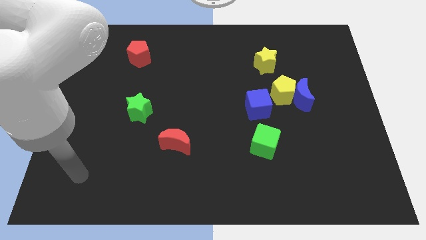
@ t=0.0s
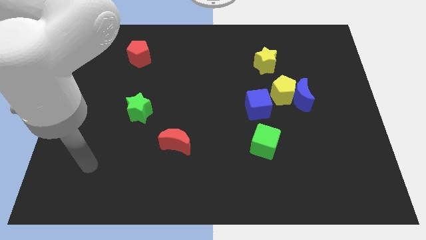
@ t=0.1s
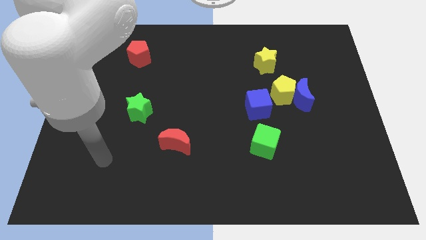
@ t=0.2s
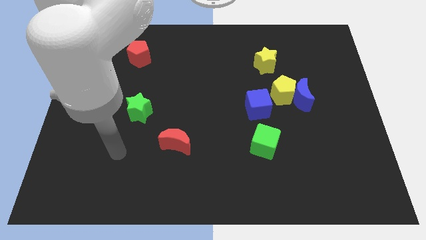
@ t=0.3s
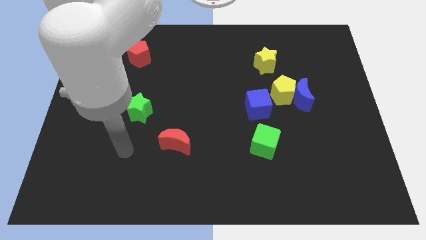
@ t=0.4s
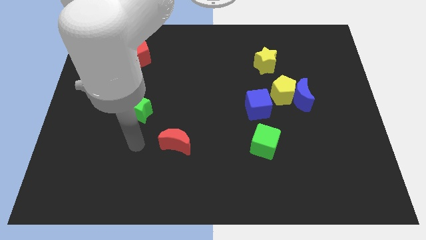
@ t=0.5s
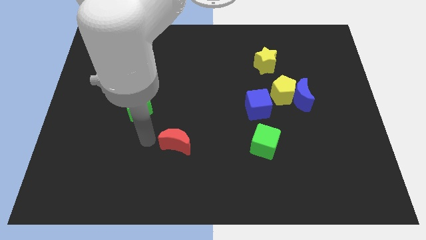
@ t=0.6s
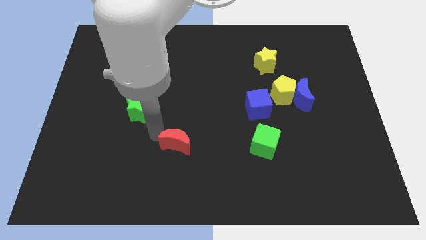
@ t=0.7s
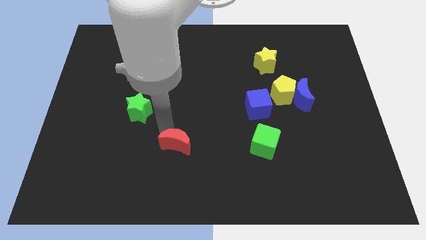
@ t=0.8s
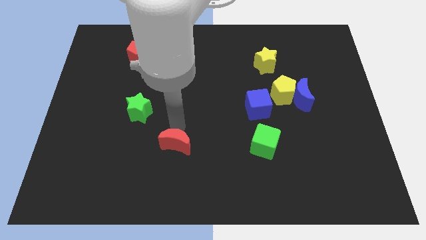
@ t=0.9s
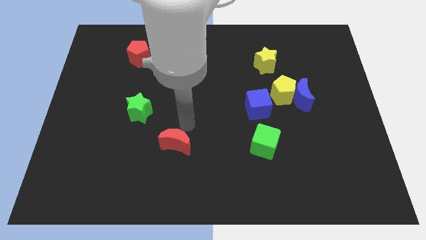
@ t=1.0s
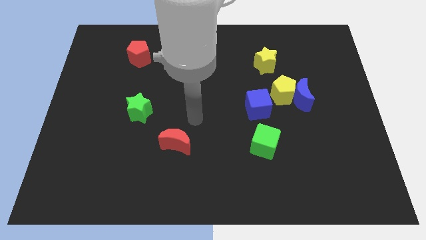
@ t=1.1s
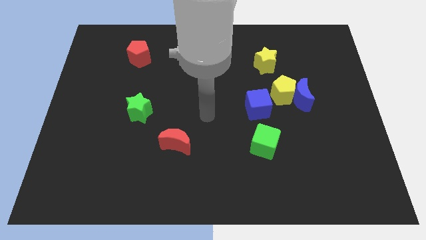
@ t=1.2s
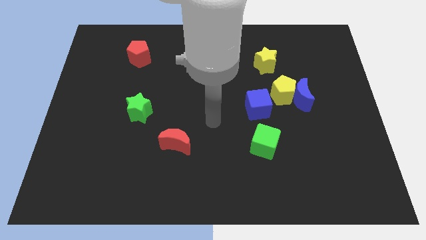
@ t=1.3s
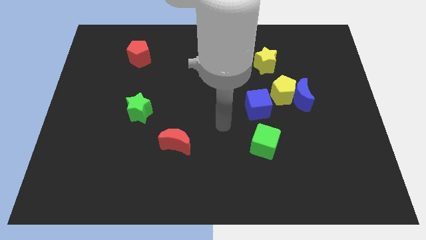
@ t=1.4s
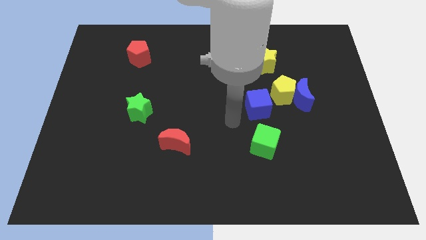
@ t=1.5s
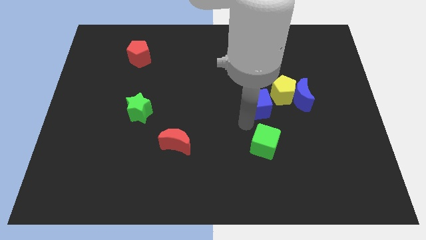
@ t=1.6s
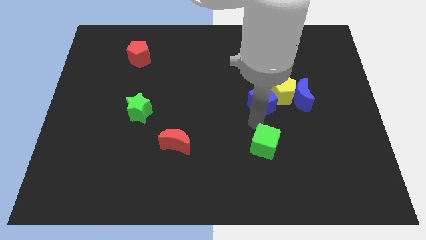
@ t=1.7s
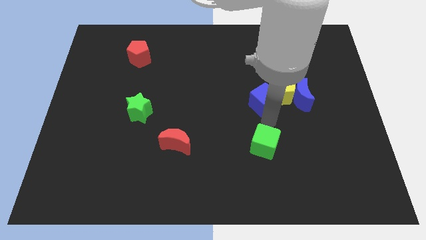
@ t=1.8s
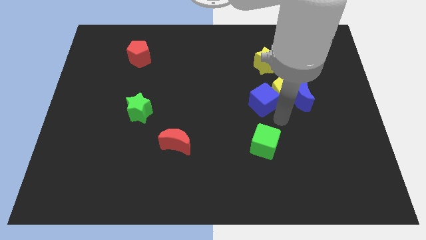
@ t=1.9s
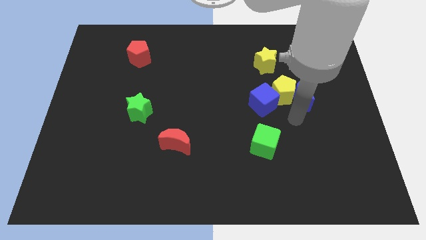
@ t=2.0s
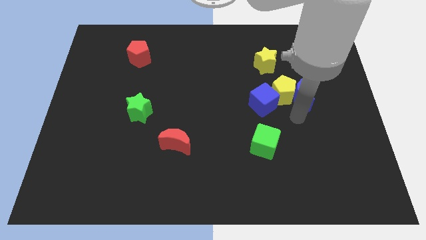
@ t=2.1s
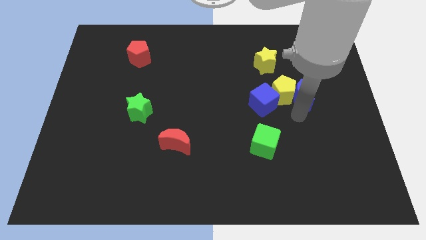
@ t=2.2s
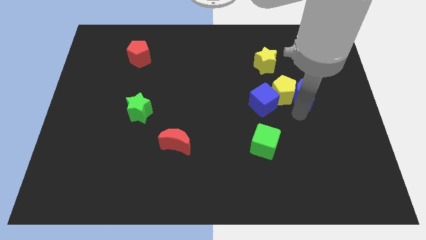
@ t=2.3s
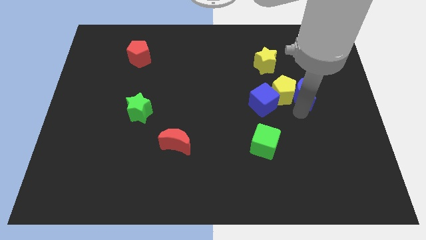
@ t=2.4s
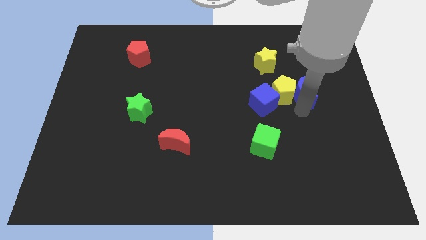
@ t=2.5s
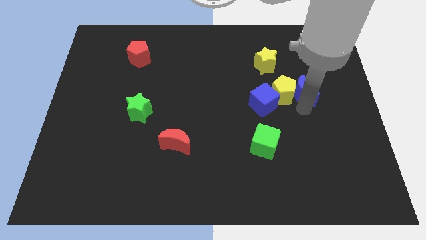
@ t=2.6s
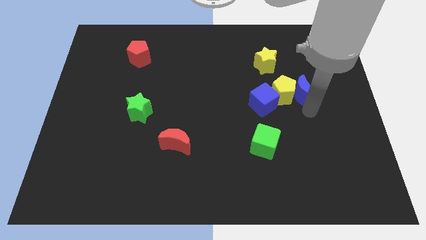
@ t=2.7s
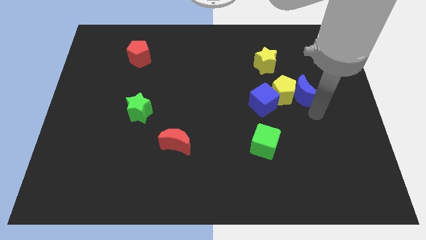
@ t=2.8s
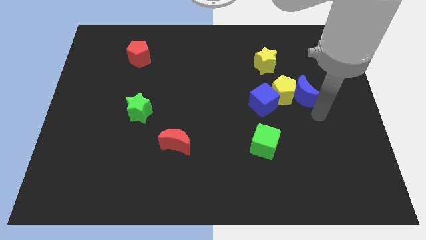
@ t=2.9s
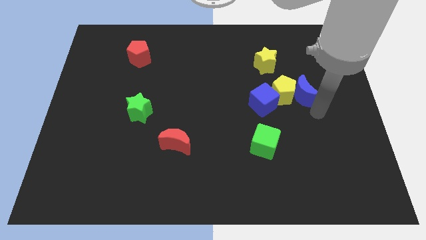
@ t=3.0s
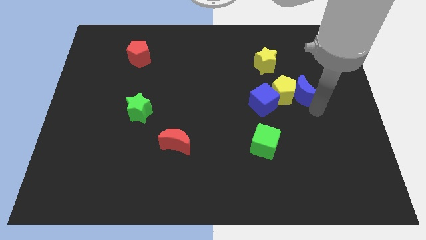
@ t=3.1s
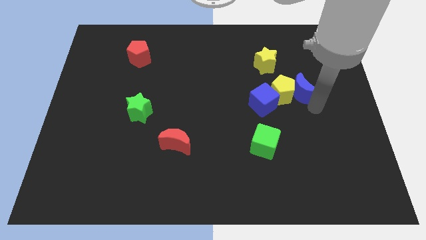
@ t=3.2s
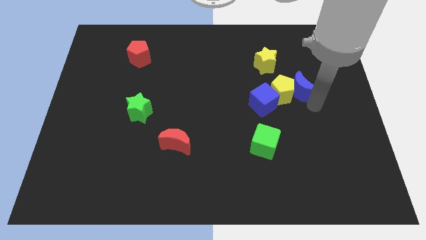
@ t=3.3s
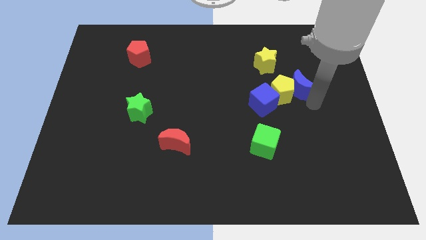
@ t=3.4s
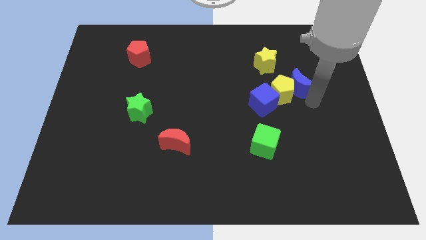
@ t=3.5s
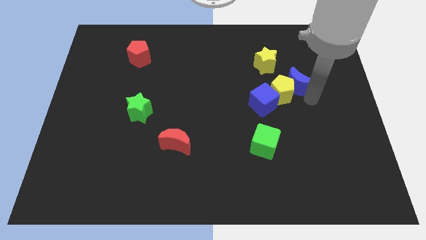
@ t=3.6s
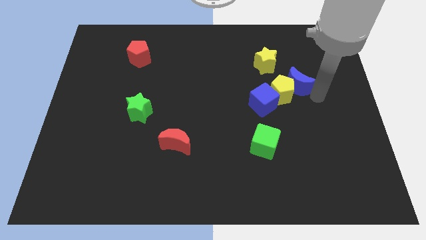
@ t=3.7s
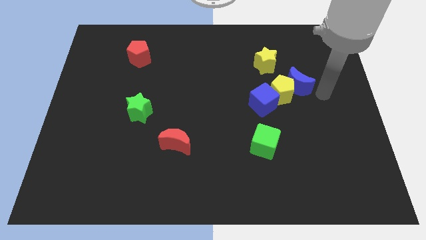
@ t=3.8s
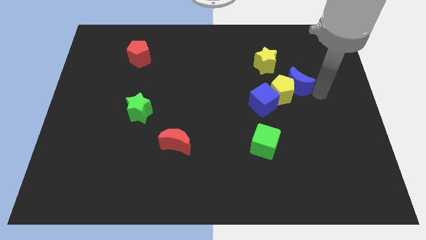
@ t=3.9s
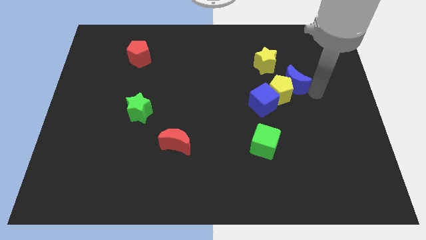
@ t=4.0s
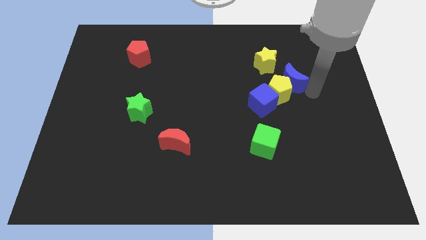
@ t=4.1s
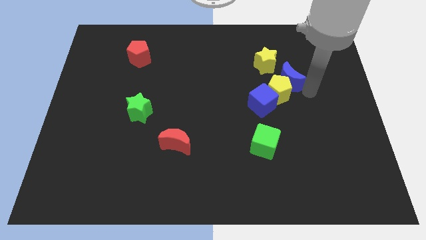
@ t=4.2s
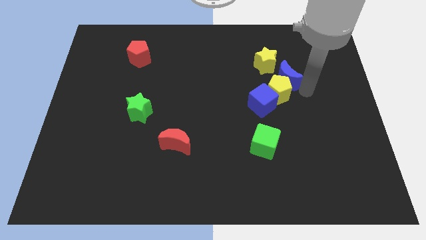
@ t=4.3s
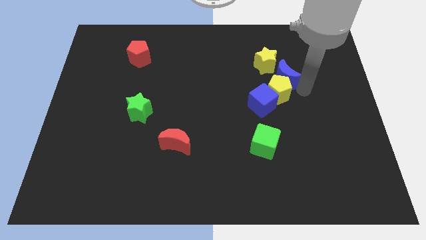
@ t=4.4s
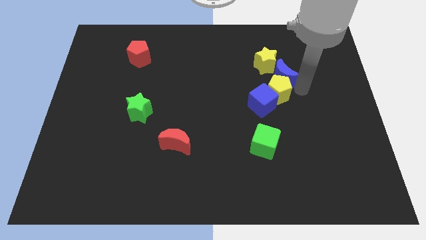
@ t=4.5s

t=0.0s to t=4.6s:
slightly slide the blue moon upwards and left diagonally

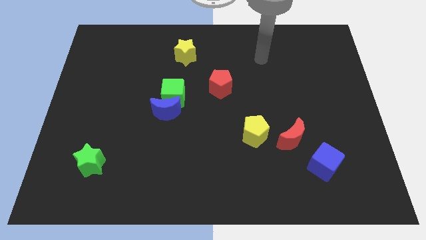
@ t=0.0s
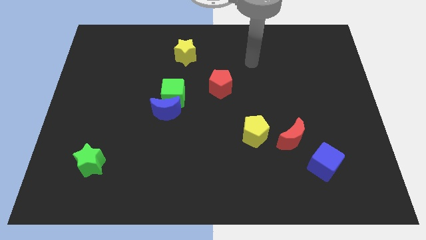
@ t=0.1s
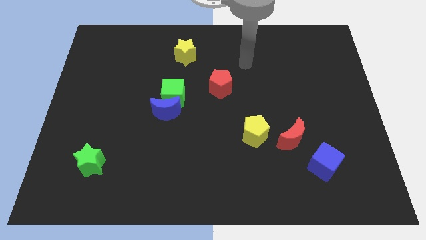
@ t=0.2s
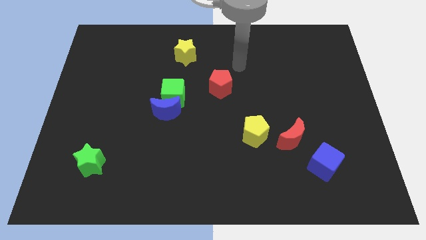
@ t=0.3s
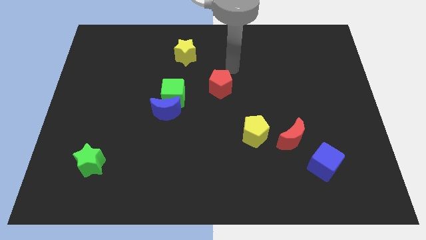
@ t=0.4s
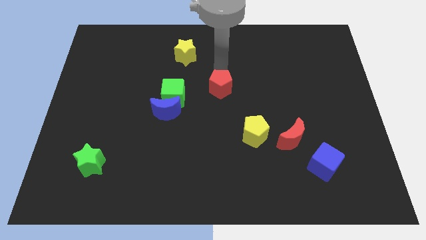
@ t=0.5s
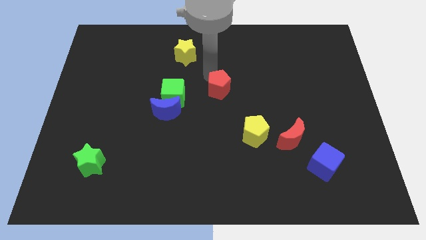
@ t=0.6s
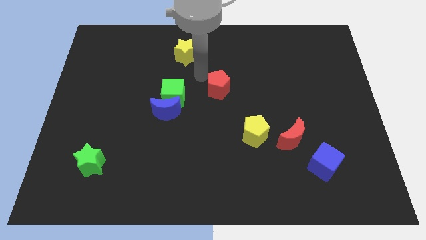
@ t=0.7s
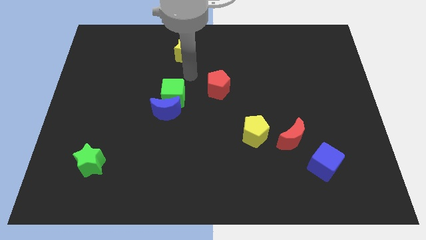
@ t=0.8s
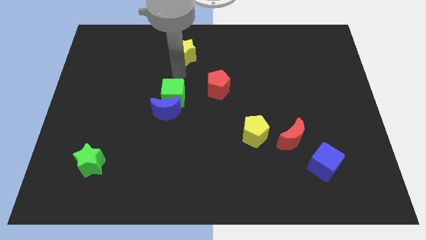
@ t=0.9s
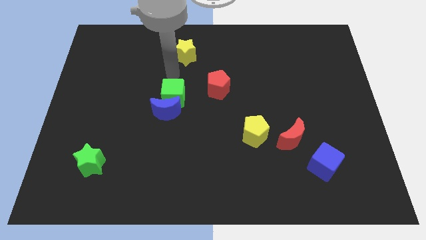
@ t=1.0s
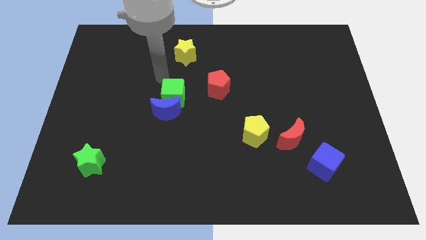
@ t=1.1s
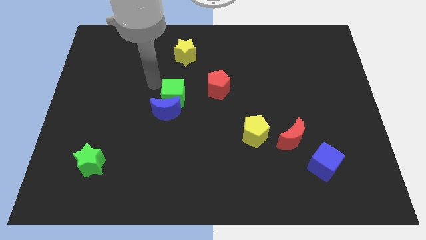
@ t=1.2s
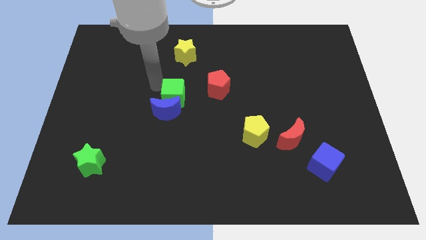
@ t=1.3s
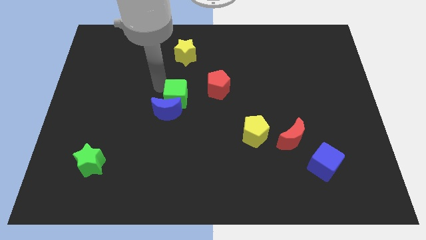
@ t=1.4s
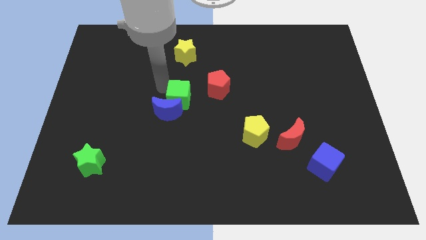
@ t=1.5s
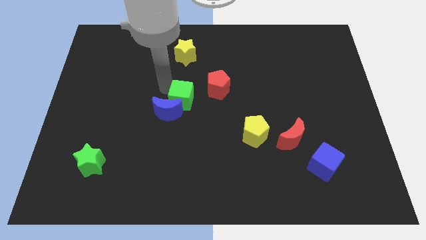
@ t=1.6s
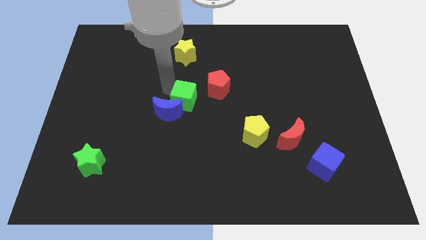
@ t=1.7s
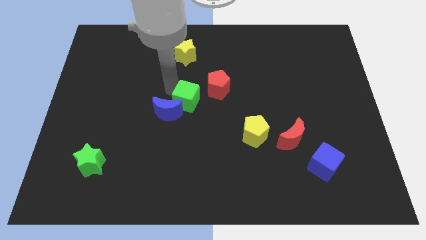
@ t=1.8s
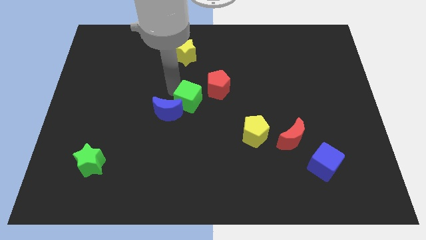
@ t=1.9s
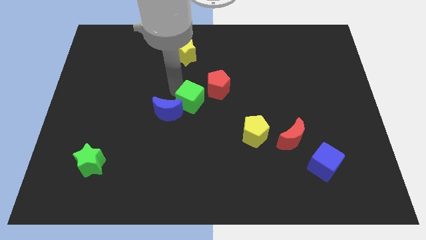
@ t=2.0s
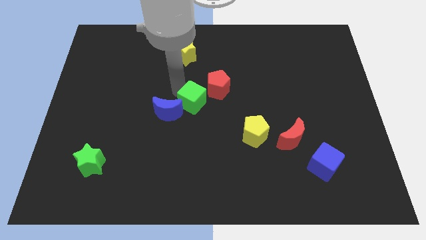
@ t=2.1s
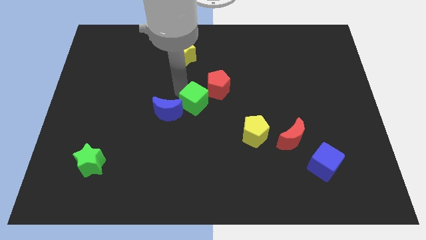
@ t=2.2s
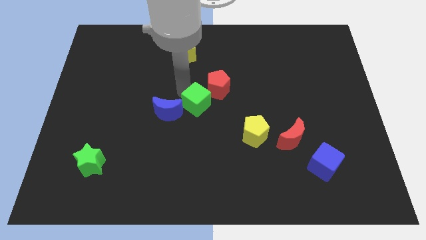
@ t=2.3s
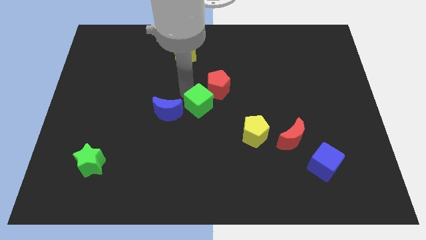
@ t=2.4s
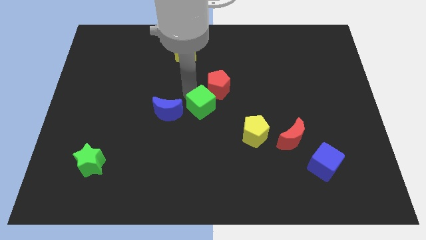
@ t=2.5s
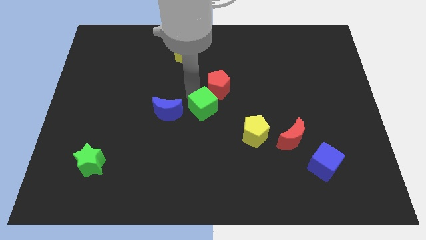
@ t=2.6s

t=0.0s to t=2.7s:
push the green cube a little down and right diagonally

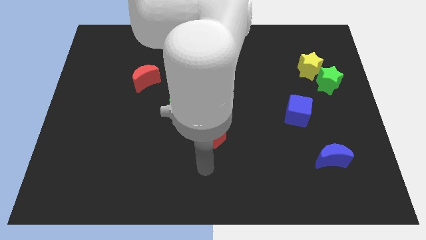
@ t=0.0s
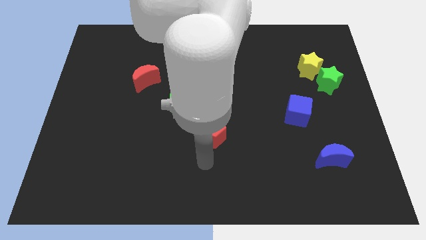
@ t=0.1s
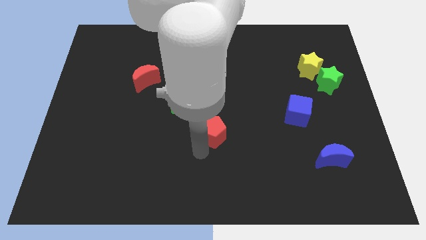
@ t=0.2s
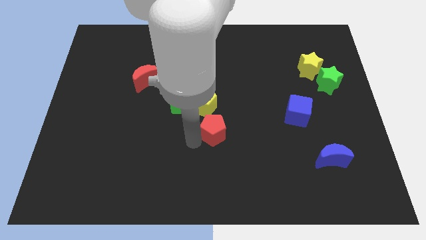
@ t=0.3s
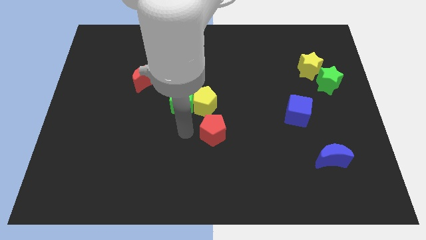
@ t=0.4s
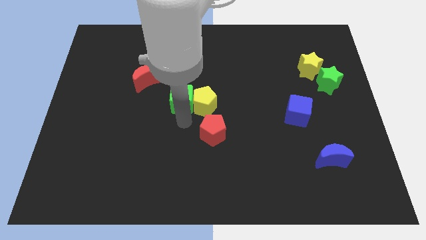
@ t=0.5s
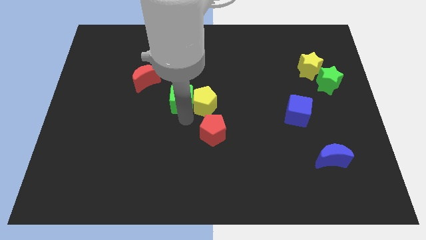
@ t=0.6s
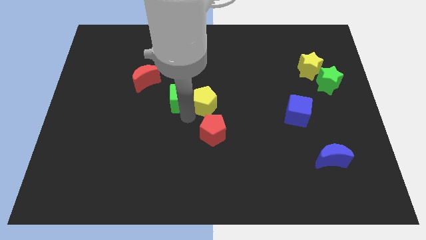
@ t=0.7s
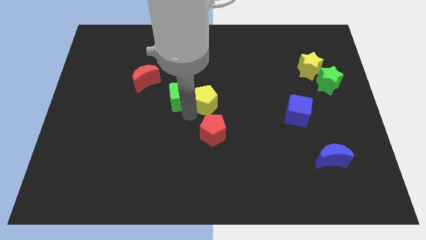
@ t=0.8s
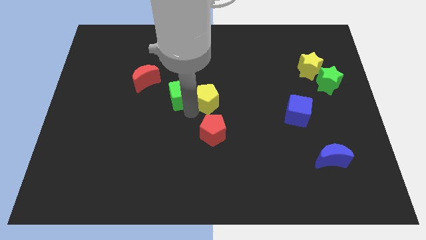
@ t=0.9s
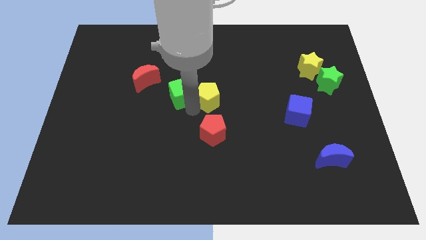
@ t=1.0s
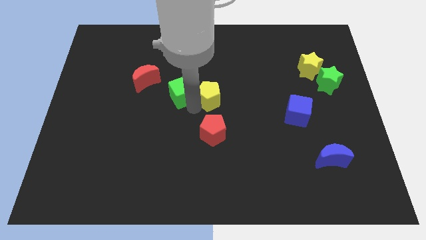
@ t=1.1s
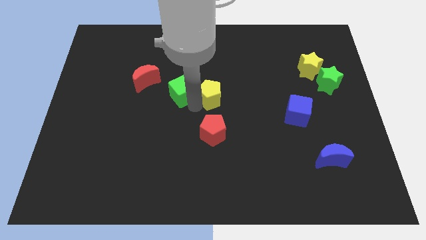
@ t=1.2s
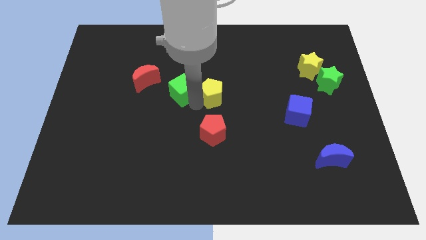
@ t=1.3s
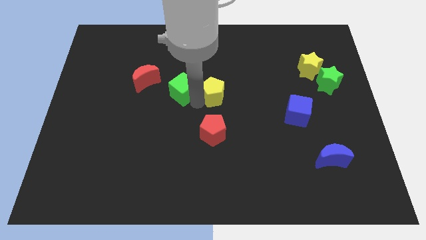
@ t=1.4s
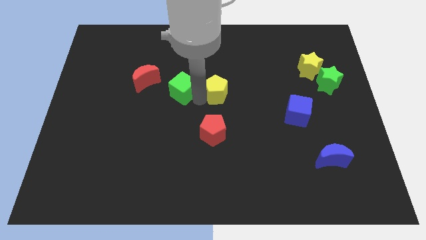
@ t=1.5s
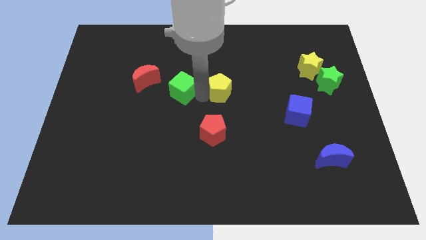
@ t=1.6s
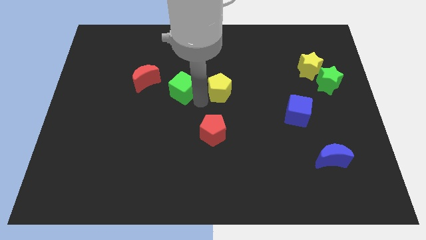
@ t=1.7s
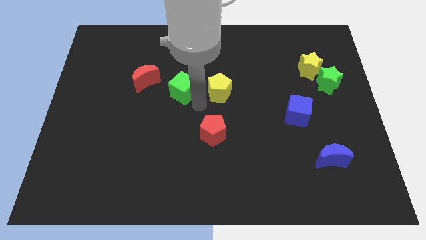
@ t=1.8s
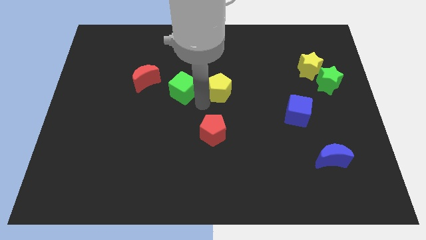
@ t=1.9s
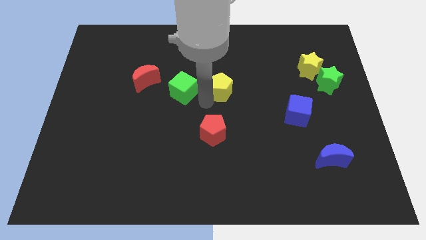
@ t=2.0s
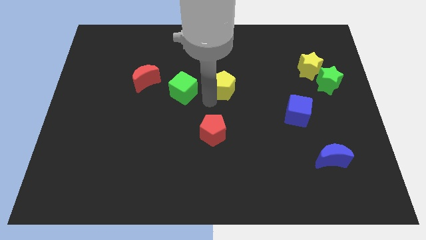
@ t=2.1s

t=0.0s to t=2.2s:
slightly push the yellow pentagon upwards and to the right diagonally
